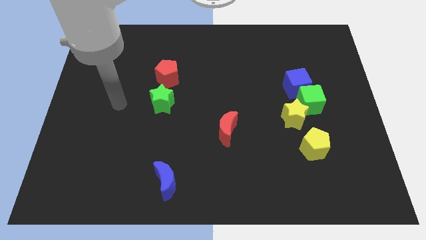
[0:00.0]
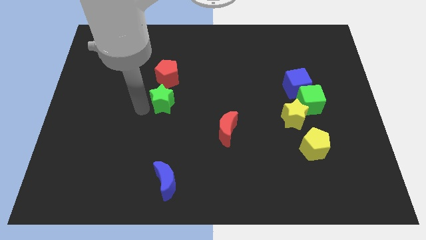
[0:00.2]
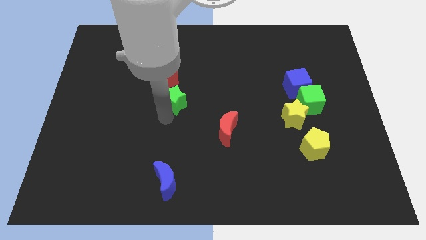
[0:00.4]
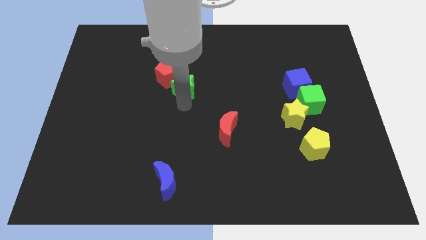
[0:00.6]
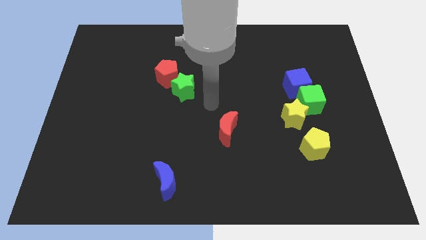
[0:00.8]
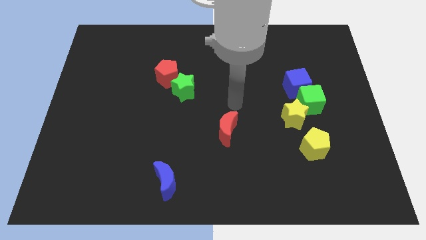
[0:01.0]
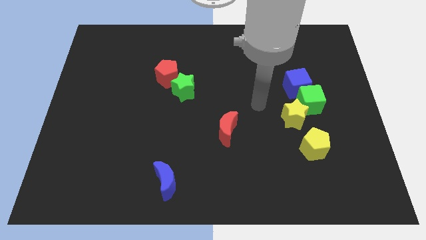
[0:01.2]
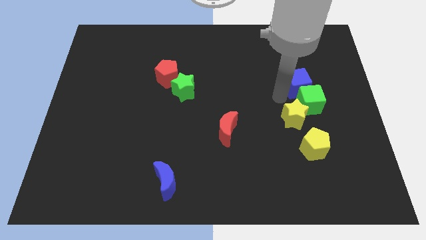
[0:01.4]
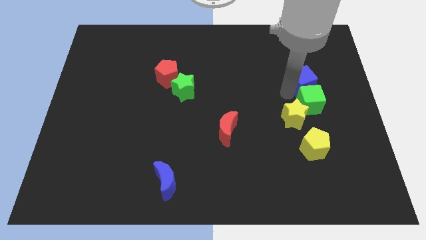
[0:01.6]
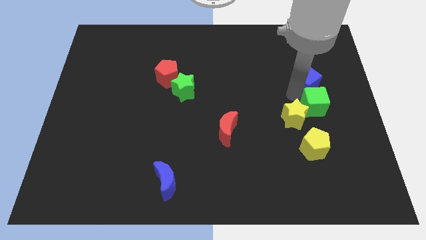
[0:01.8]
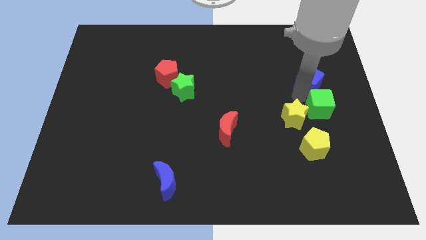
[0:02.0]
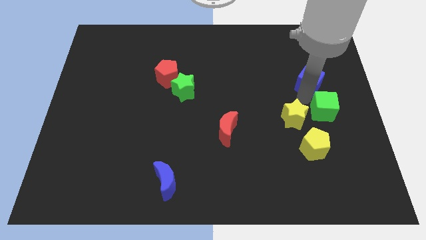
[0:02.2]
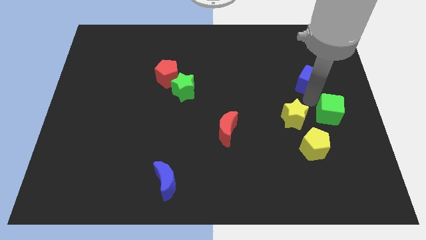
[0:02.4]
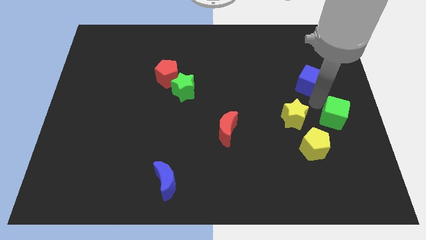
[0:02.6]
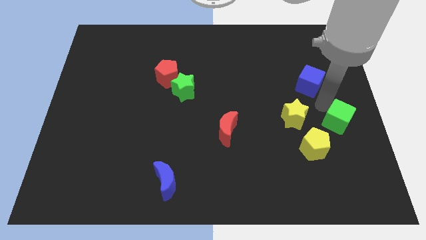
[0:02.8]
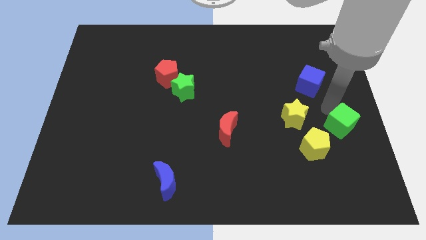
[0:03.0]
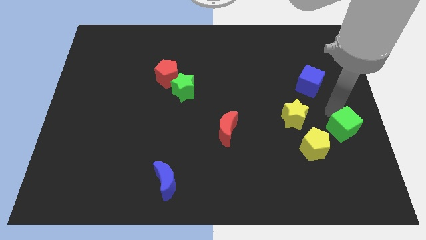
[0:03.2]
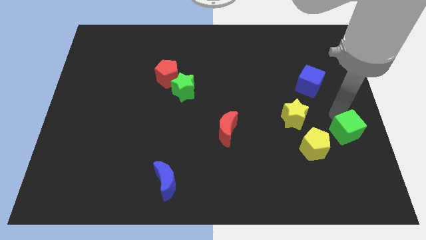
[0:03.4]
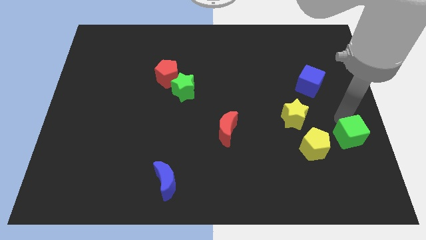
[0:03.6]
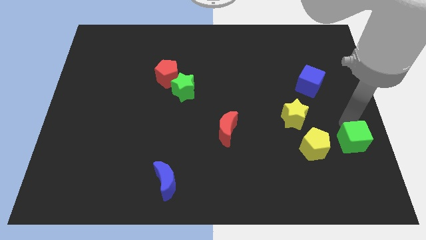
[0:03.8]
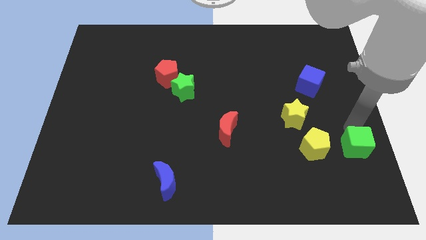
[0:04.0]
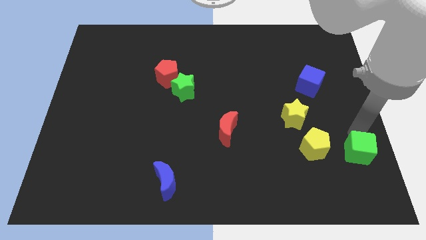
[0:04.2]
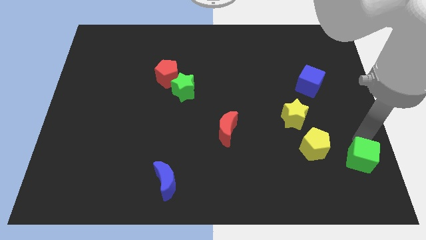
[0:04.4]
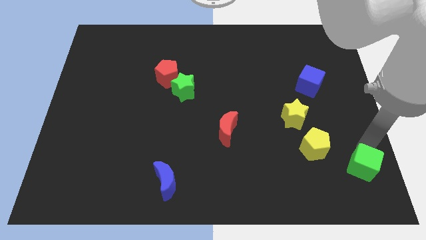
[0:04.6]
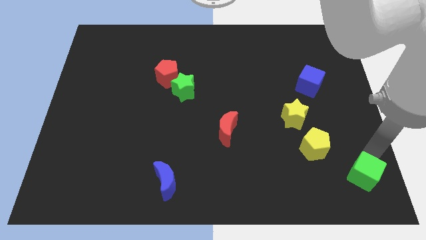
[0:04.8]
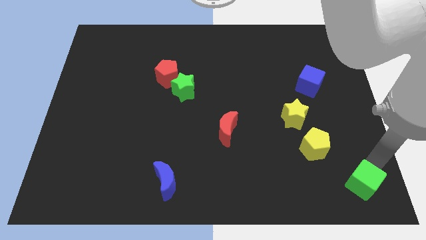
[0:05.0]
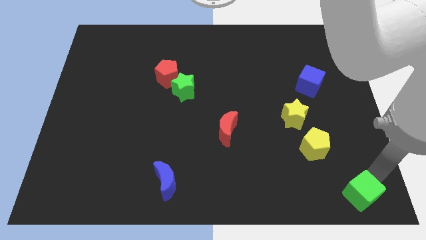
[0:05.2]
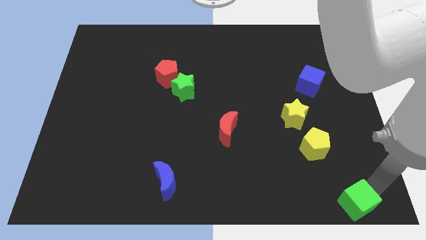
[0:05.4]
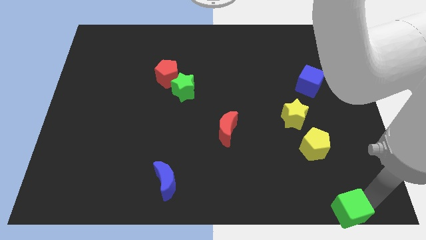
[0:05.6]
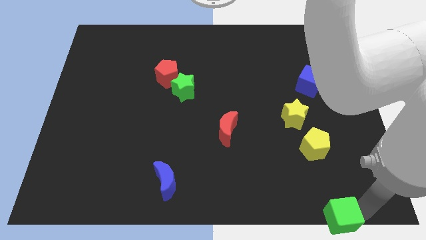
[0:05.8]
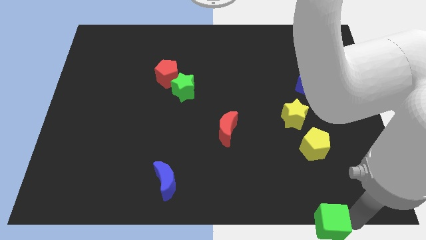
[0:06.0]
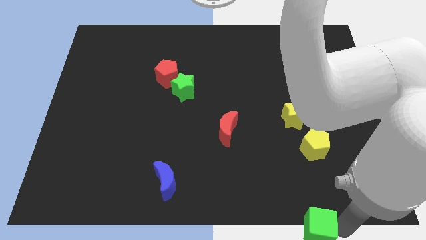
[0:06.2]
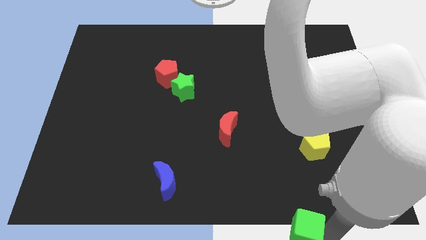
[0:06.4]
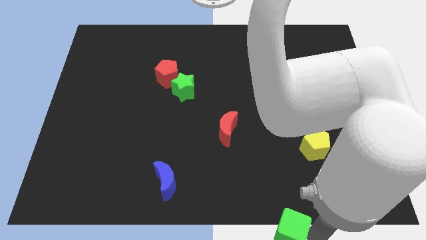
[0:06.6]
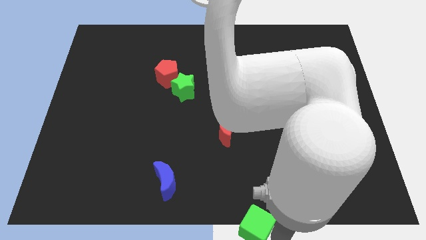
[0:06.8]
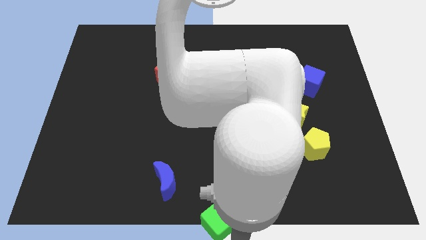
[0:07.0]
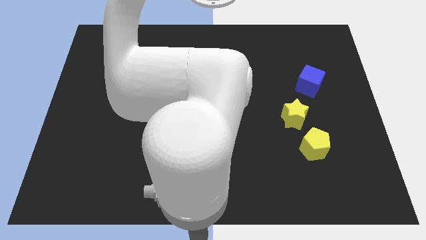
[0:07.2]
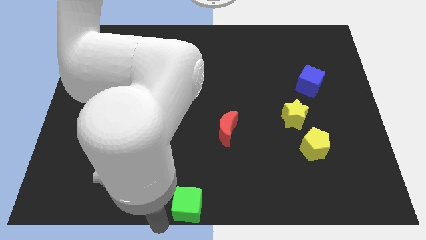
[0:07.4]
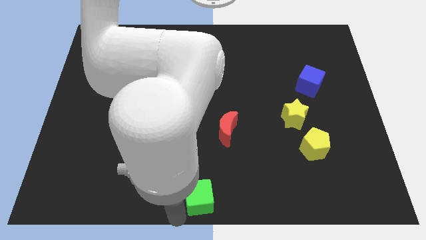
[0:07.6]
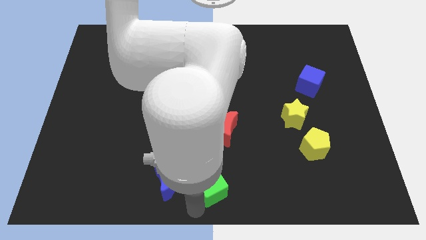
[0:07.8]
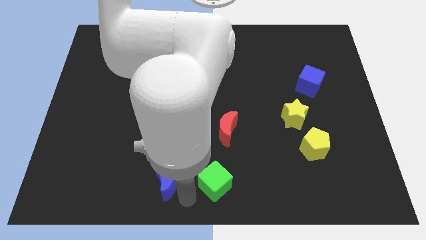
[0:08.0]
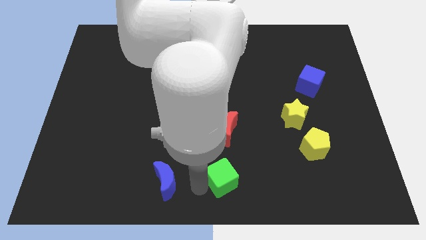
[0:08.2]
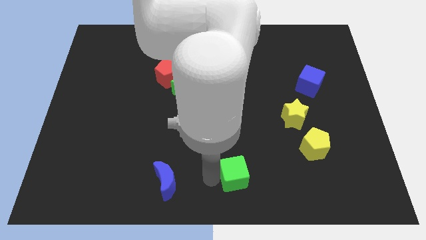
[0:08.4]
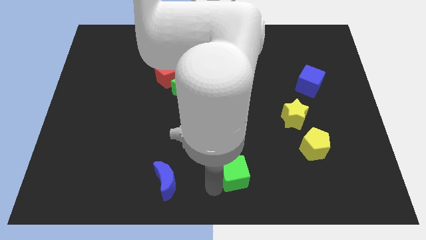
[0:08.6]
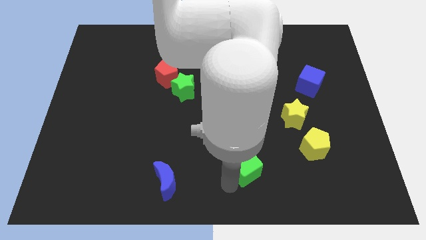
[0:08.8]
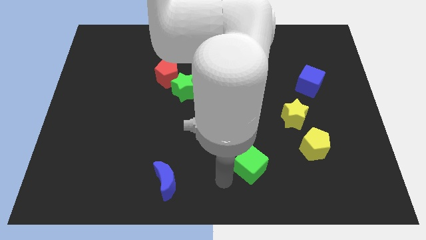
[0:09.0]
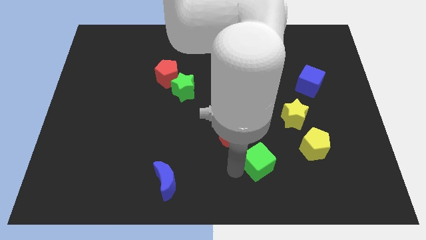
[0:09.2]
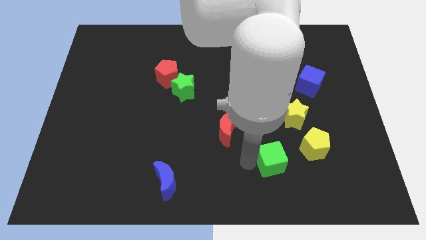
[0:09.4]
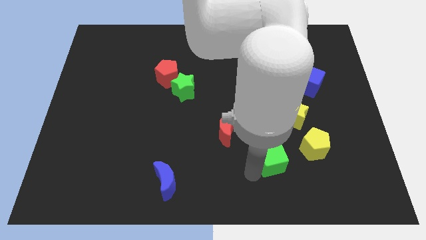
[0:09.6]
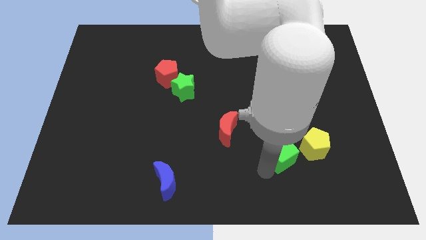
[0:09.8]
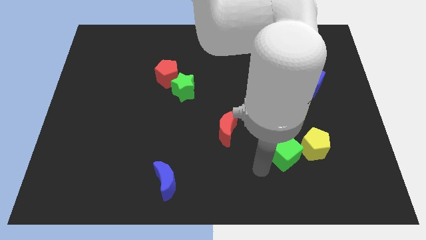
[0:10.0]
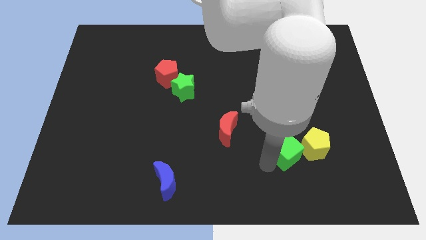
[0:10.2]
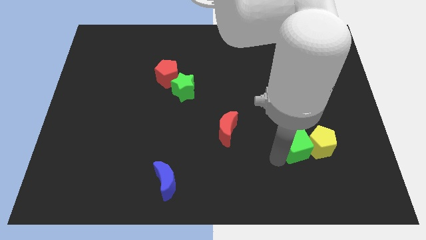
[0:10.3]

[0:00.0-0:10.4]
put the green cube next to the yellow pentagon

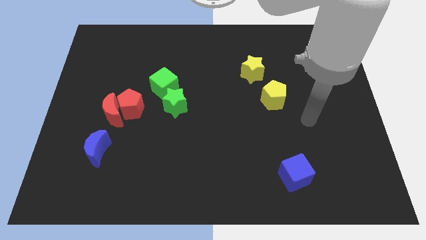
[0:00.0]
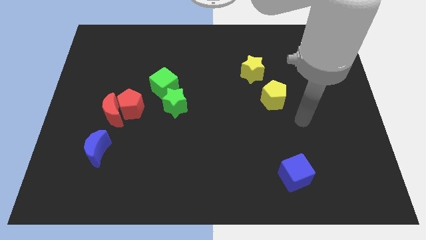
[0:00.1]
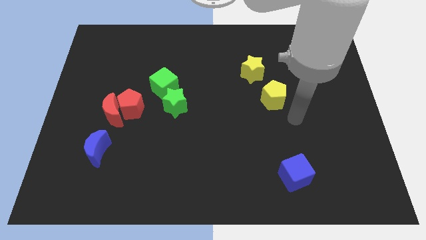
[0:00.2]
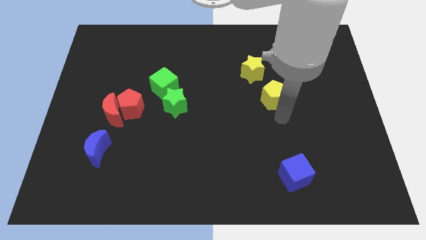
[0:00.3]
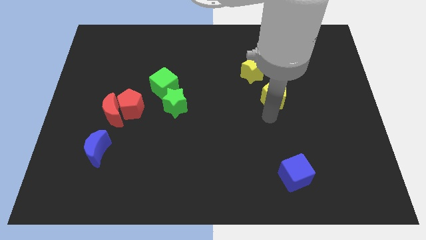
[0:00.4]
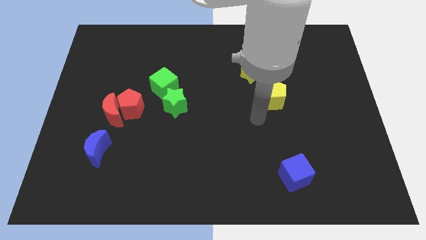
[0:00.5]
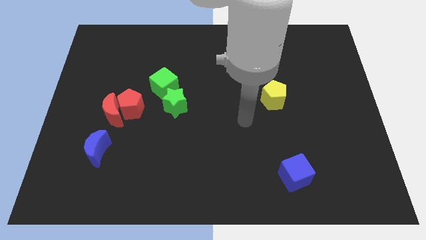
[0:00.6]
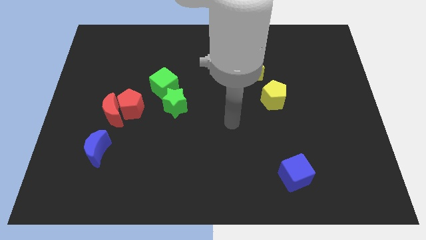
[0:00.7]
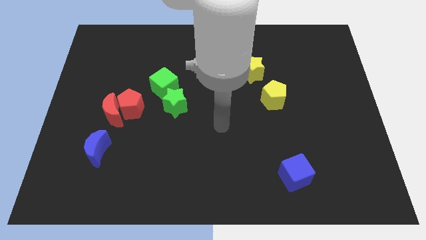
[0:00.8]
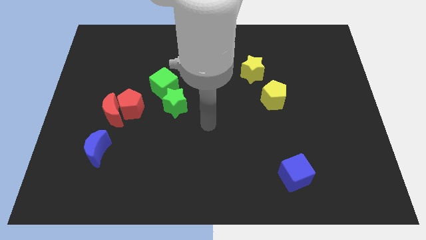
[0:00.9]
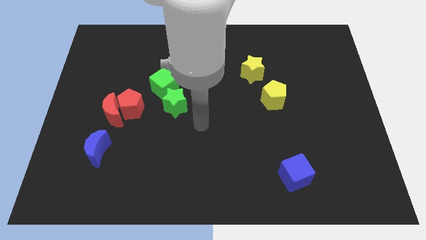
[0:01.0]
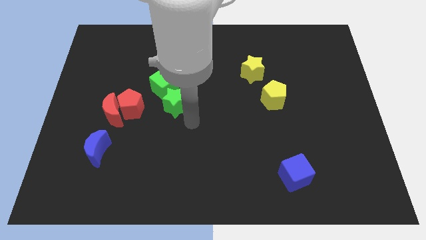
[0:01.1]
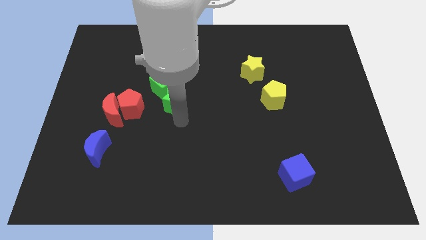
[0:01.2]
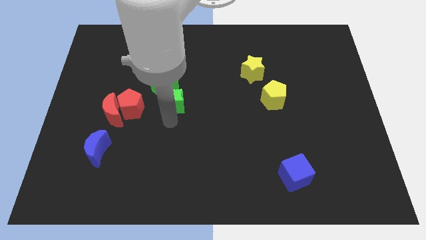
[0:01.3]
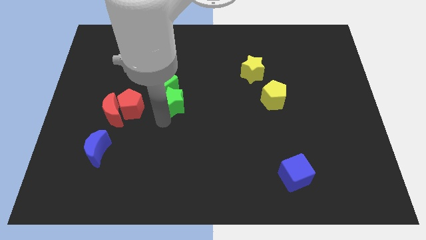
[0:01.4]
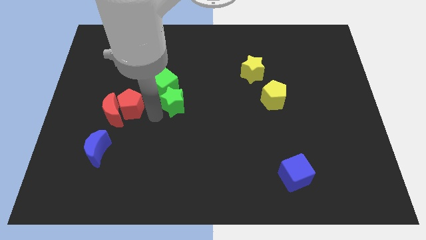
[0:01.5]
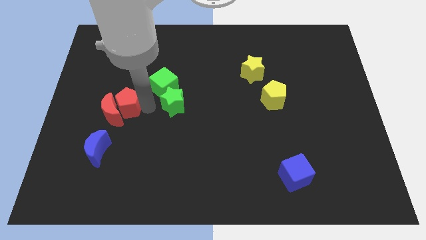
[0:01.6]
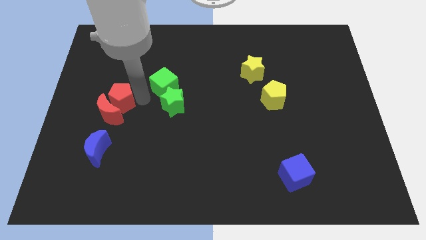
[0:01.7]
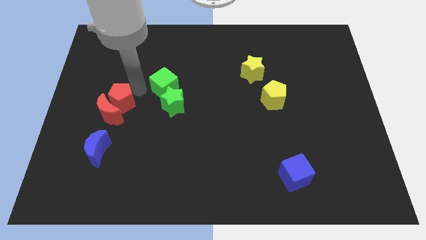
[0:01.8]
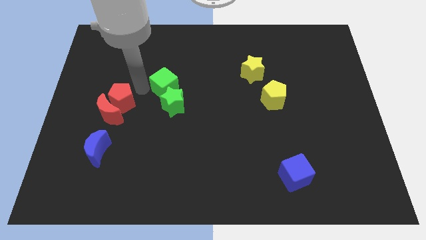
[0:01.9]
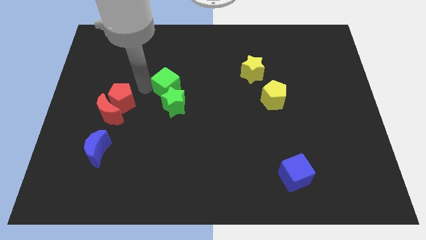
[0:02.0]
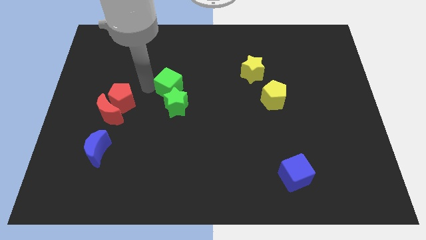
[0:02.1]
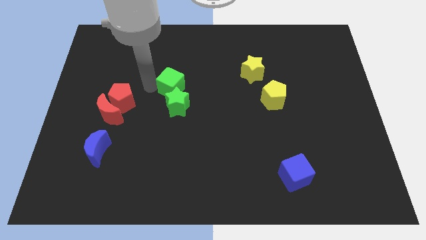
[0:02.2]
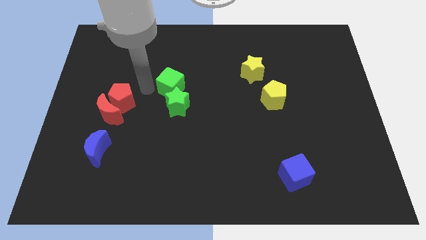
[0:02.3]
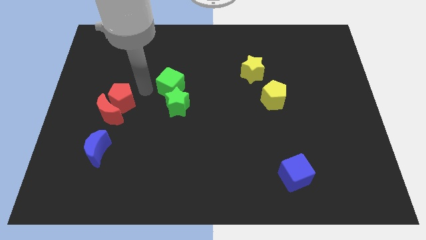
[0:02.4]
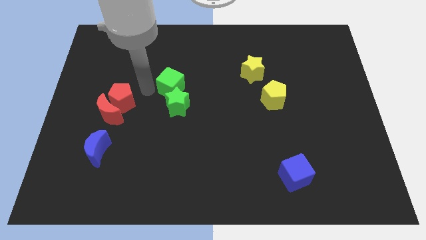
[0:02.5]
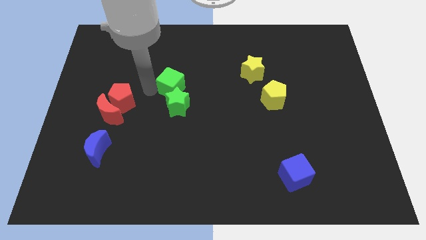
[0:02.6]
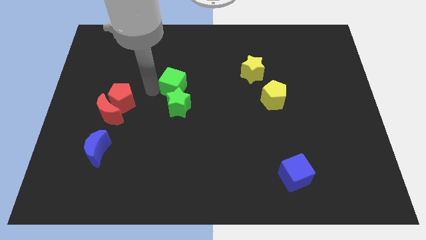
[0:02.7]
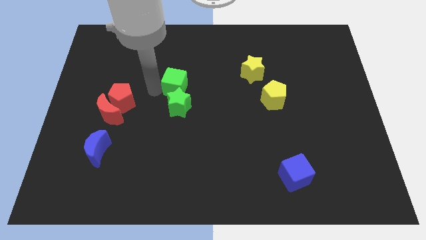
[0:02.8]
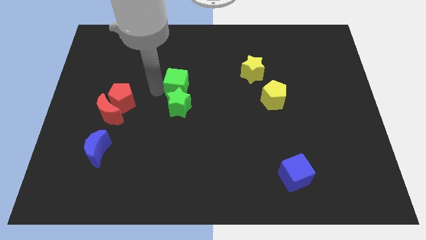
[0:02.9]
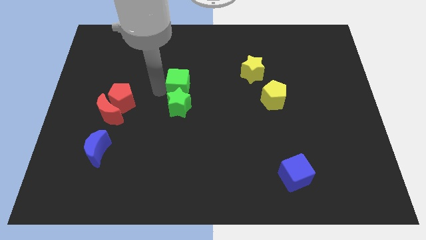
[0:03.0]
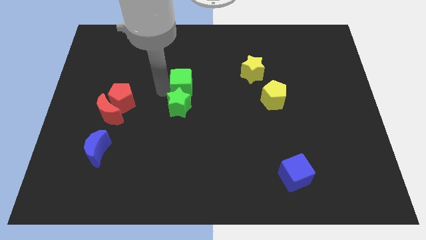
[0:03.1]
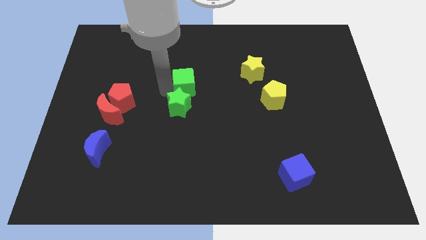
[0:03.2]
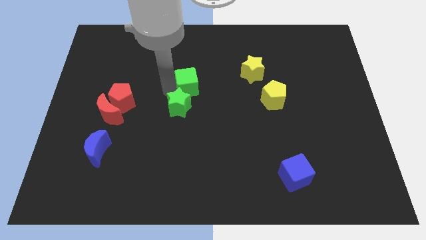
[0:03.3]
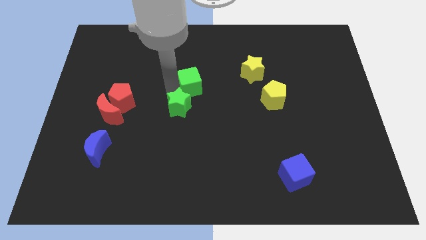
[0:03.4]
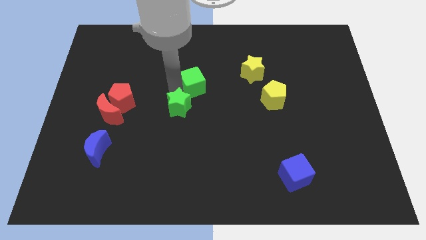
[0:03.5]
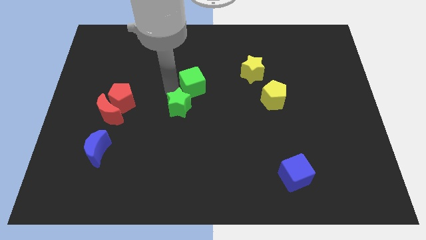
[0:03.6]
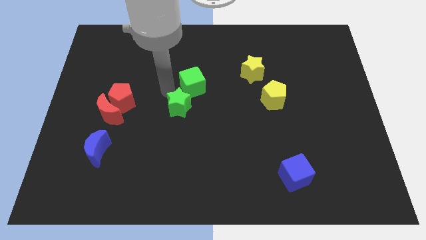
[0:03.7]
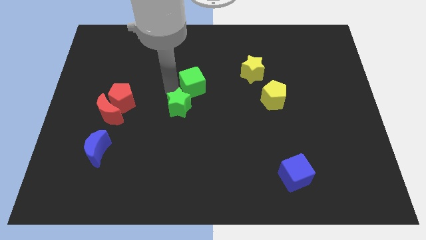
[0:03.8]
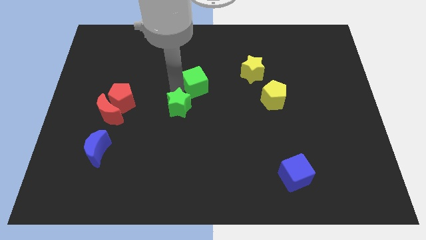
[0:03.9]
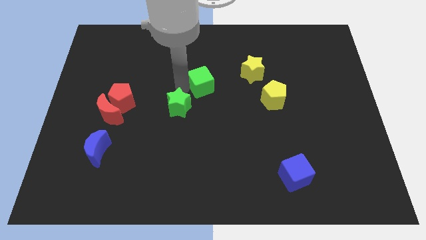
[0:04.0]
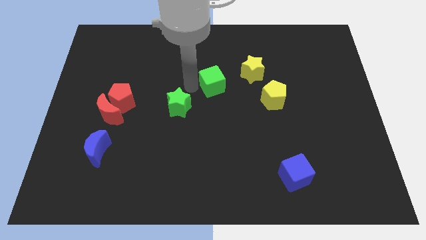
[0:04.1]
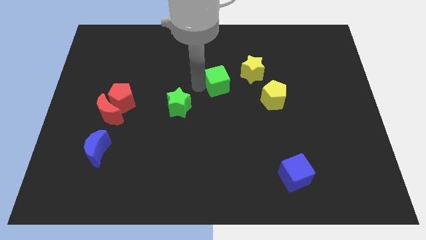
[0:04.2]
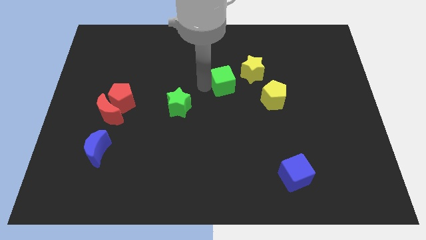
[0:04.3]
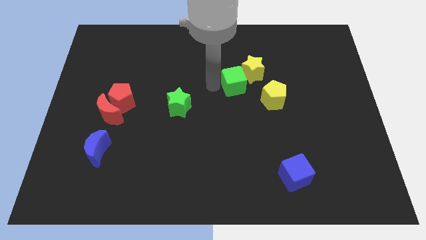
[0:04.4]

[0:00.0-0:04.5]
push the green cube towards the yellow star
